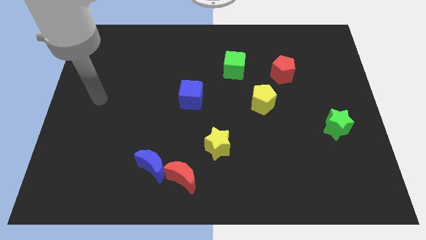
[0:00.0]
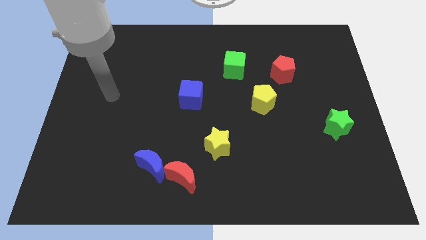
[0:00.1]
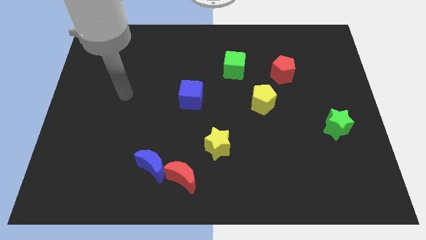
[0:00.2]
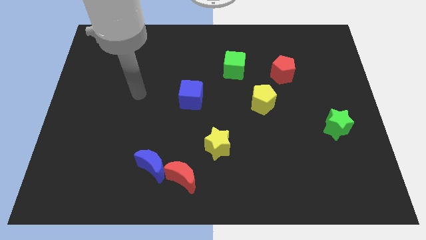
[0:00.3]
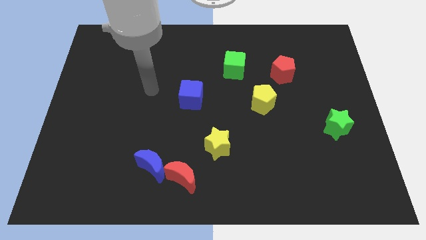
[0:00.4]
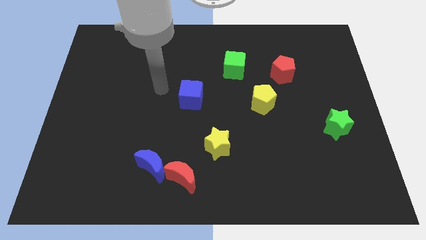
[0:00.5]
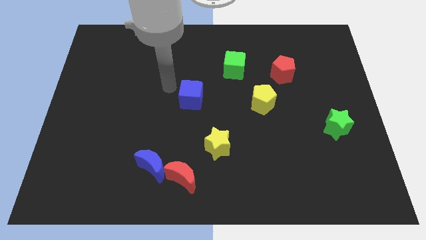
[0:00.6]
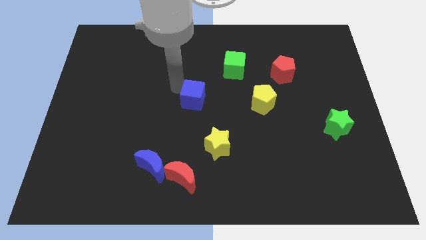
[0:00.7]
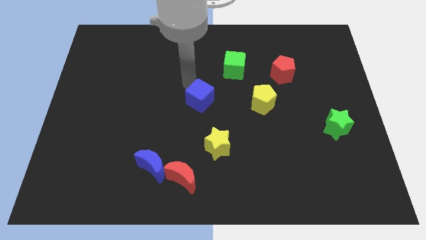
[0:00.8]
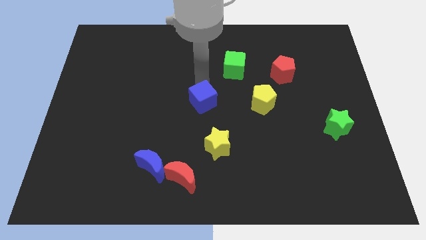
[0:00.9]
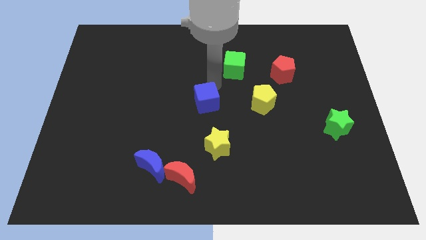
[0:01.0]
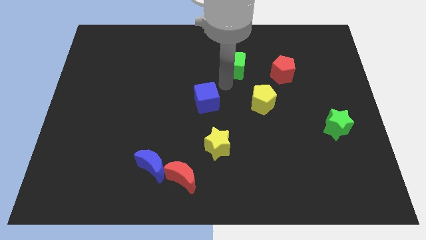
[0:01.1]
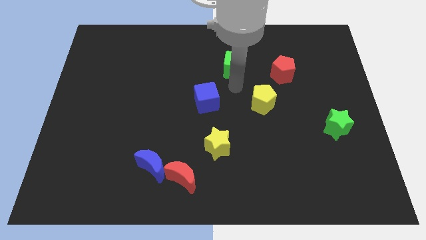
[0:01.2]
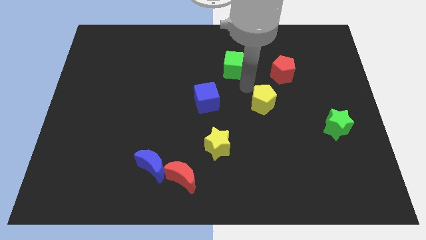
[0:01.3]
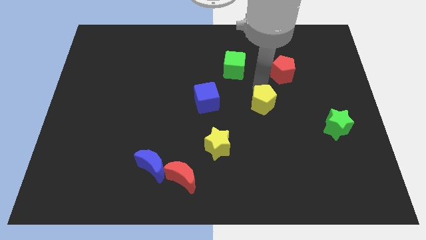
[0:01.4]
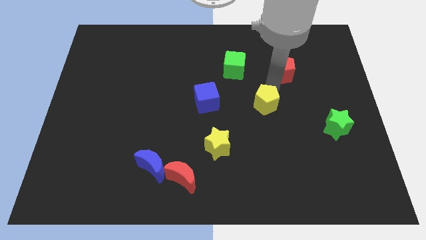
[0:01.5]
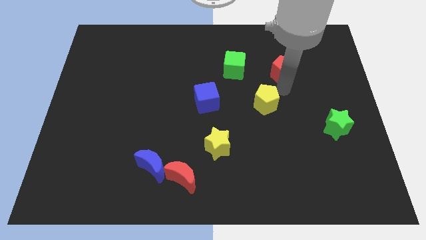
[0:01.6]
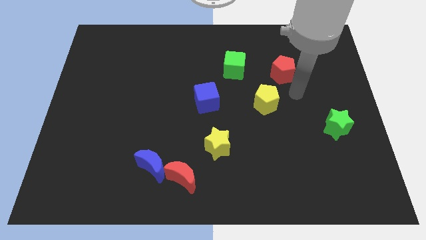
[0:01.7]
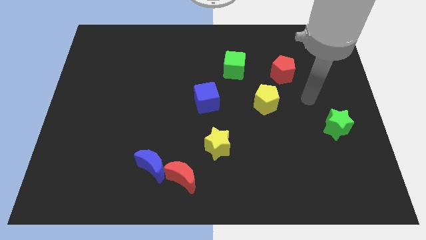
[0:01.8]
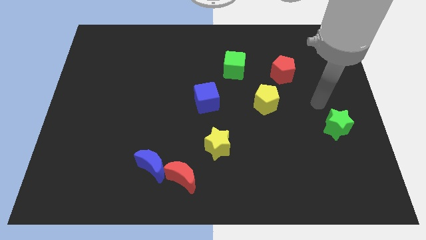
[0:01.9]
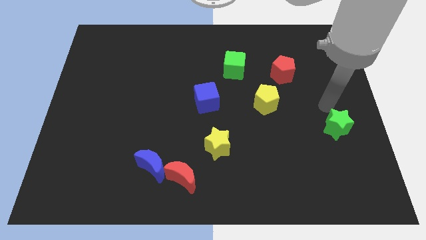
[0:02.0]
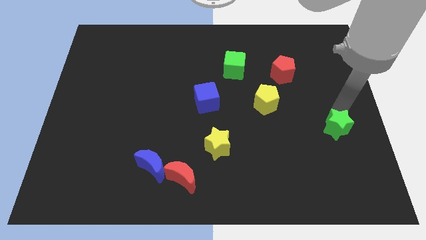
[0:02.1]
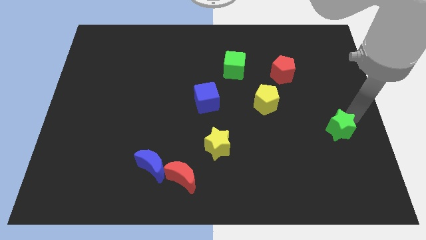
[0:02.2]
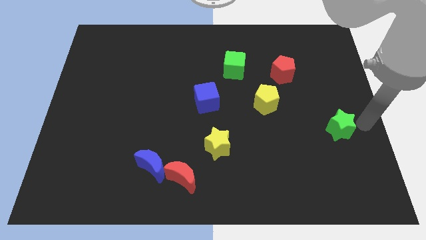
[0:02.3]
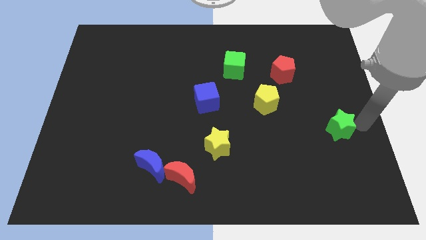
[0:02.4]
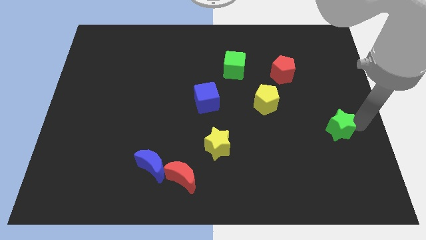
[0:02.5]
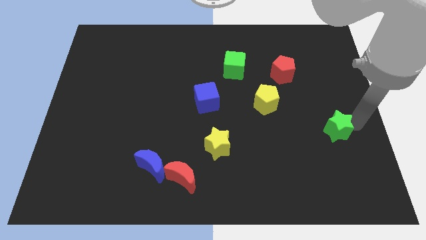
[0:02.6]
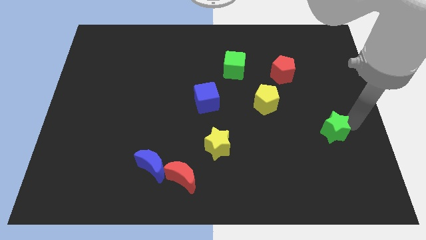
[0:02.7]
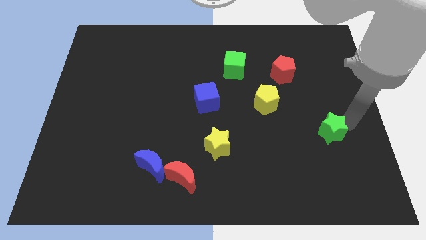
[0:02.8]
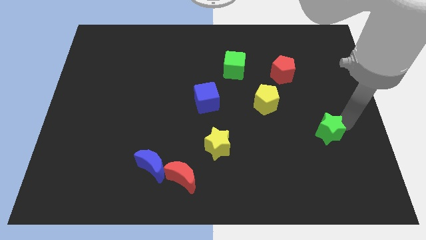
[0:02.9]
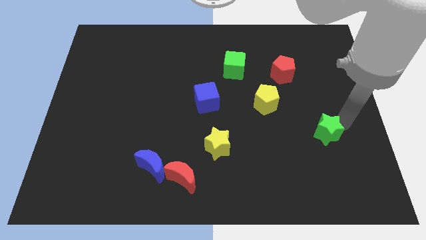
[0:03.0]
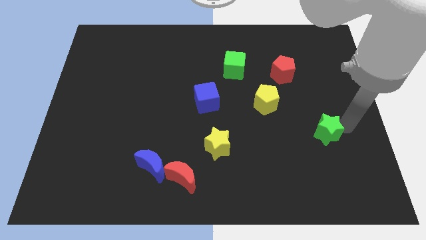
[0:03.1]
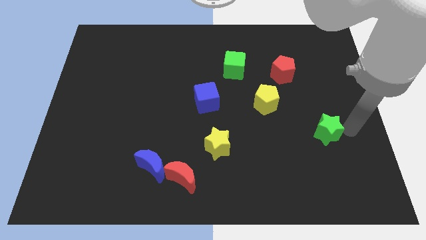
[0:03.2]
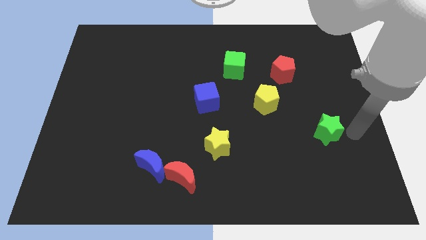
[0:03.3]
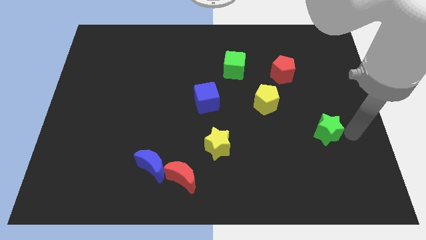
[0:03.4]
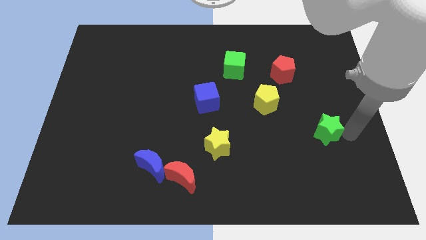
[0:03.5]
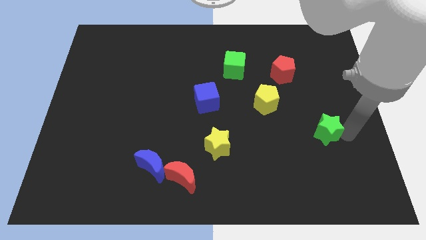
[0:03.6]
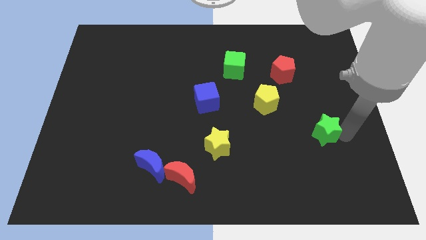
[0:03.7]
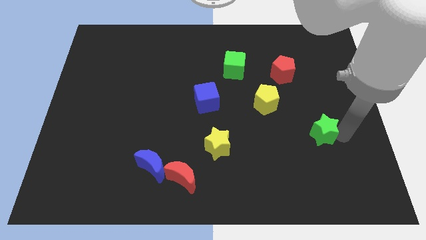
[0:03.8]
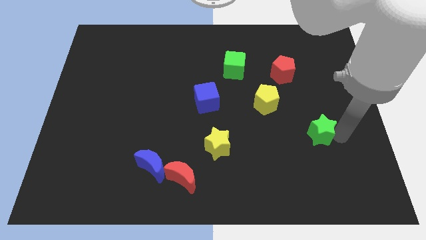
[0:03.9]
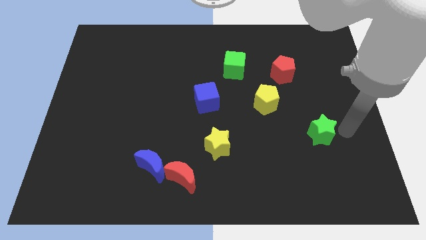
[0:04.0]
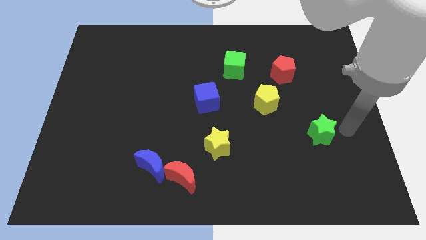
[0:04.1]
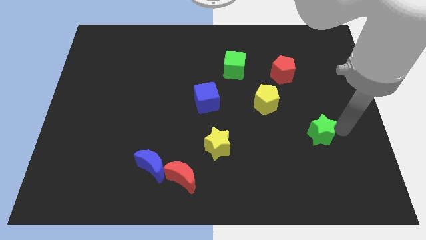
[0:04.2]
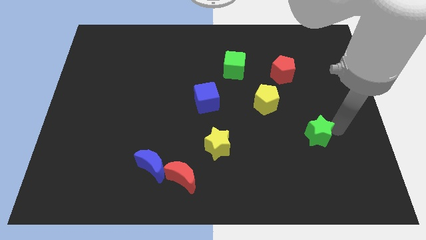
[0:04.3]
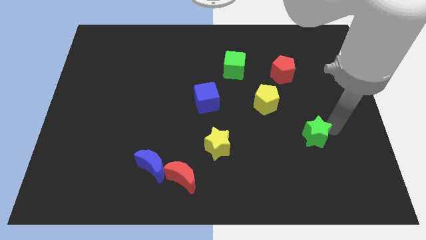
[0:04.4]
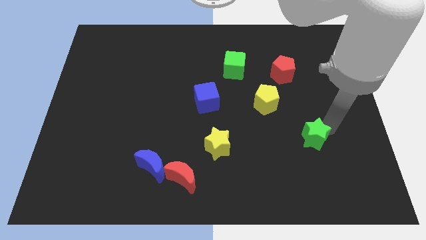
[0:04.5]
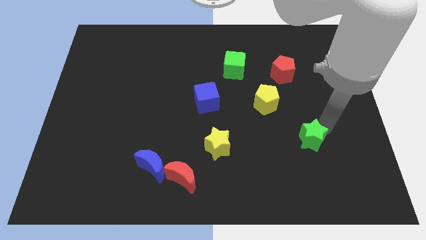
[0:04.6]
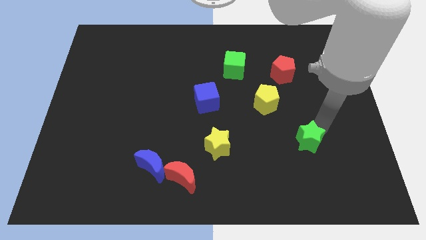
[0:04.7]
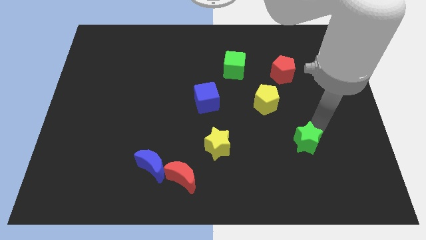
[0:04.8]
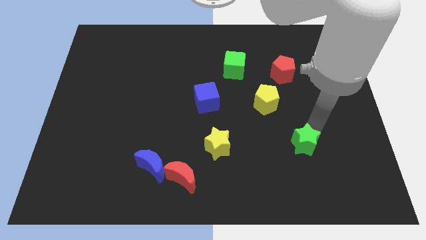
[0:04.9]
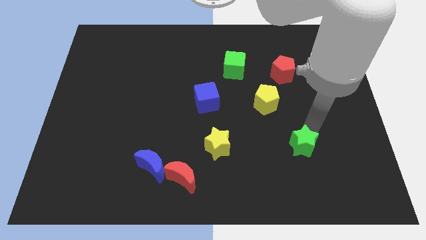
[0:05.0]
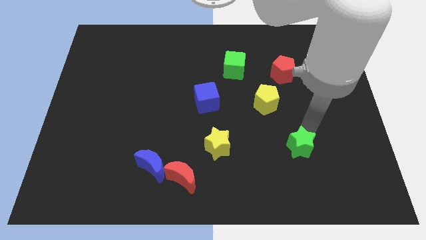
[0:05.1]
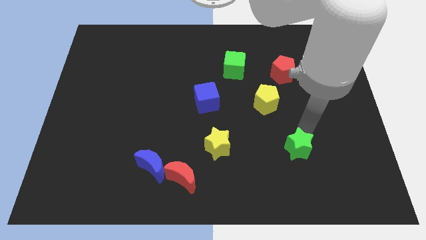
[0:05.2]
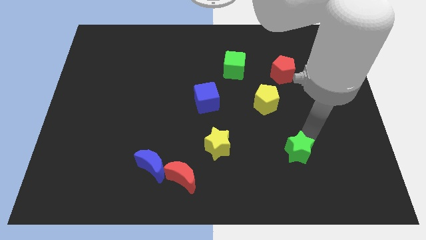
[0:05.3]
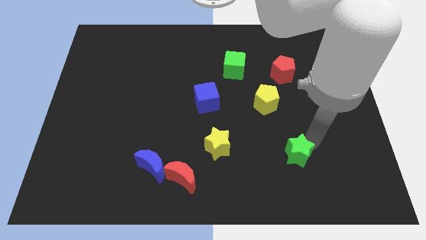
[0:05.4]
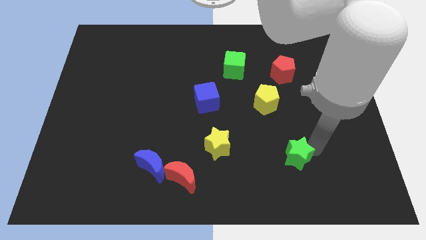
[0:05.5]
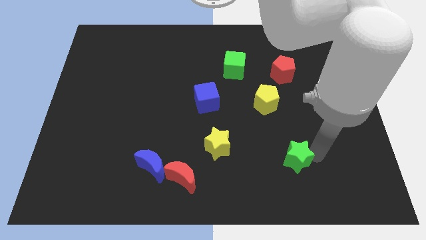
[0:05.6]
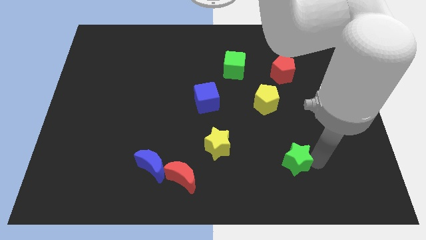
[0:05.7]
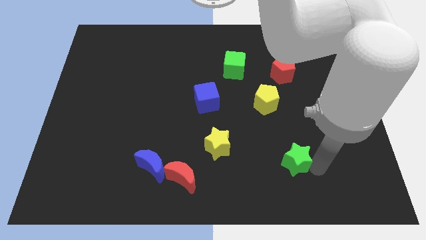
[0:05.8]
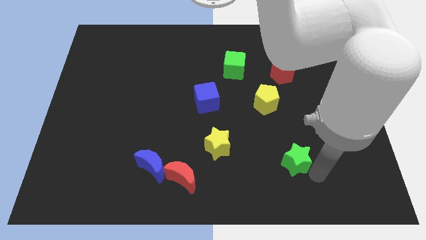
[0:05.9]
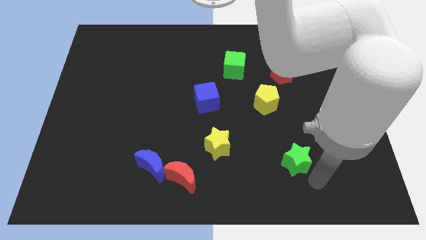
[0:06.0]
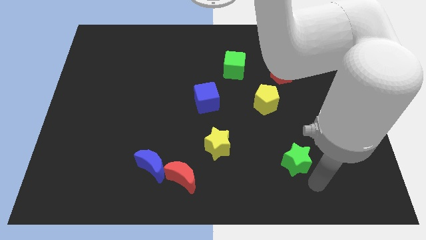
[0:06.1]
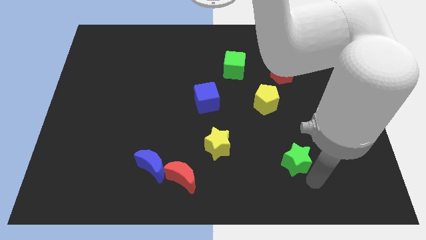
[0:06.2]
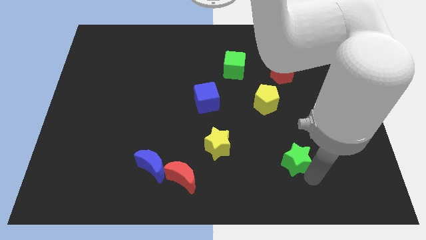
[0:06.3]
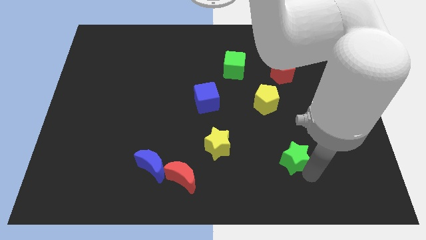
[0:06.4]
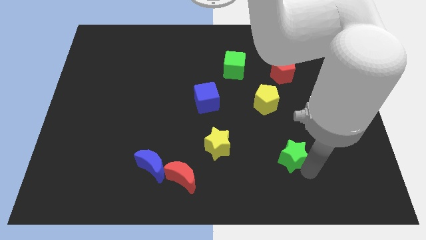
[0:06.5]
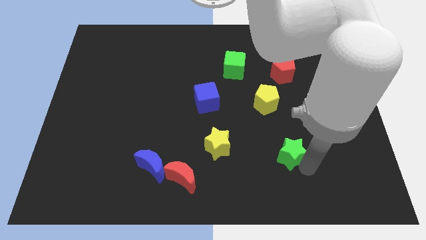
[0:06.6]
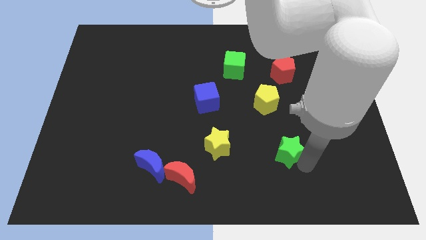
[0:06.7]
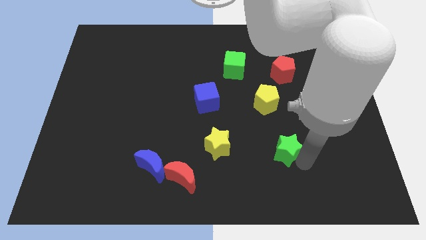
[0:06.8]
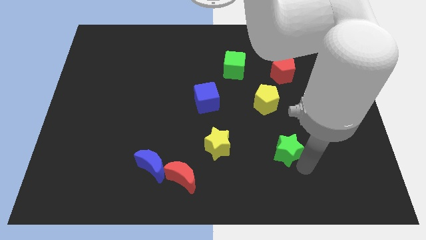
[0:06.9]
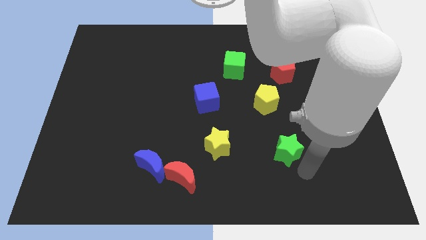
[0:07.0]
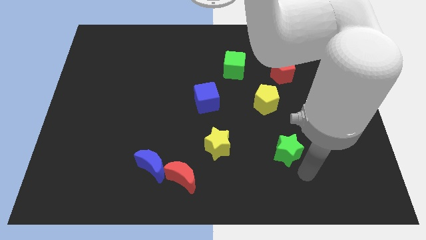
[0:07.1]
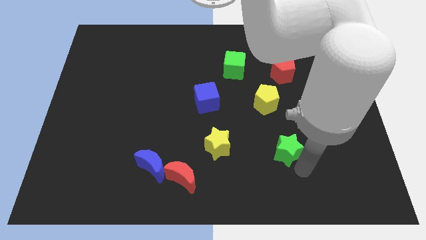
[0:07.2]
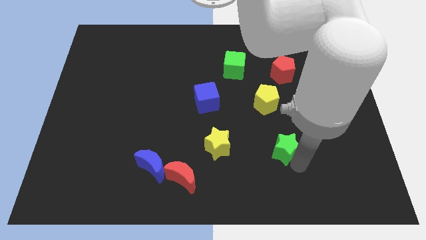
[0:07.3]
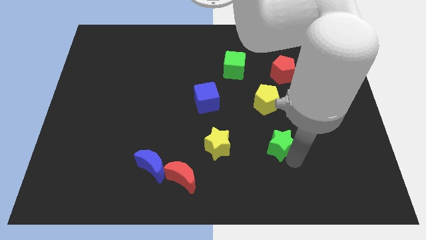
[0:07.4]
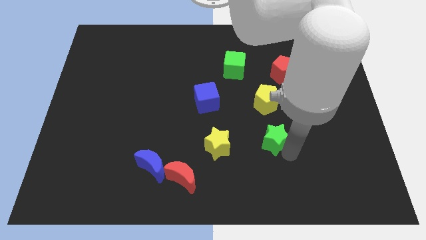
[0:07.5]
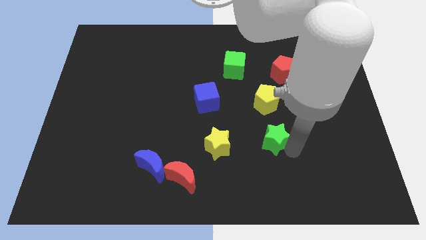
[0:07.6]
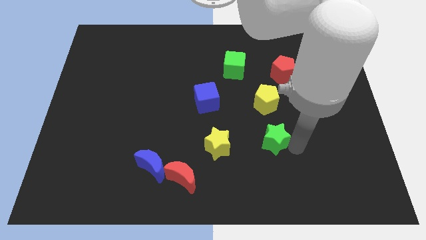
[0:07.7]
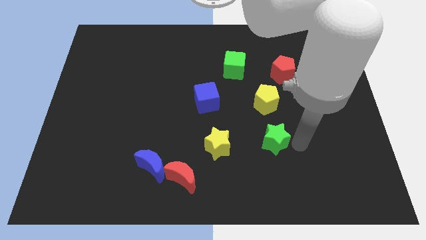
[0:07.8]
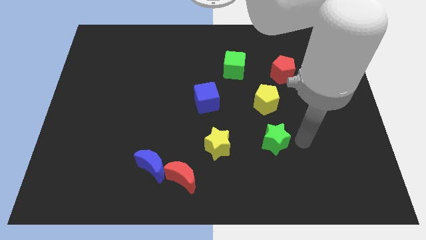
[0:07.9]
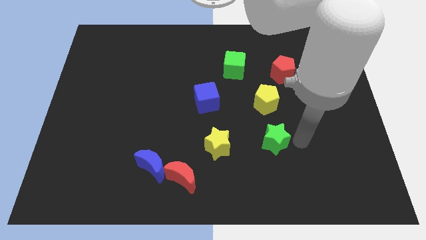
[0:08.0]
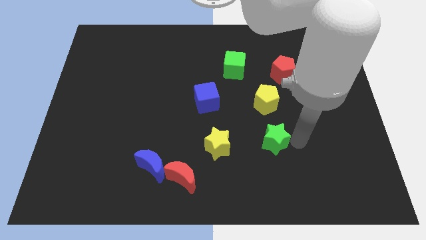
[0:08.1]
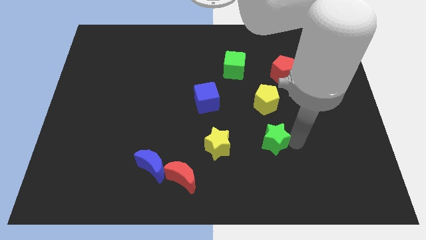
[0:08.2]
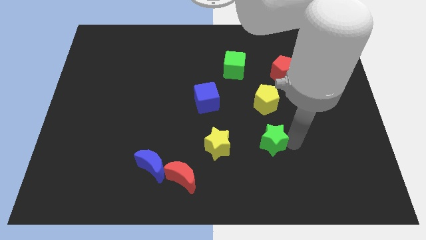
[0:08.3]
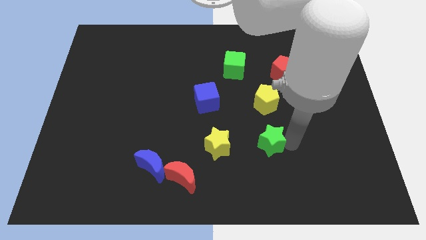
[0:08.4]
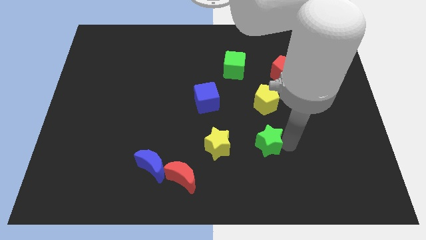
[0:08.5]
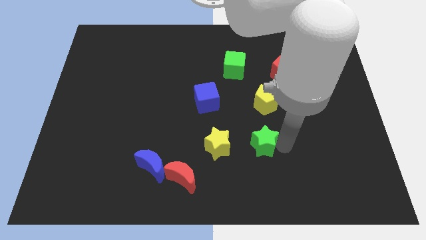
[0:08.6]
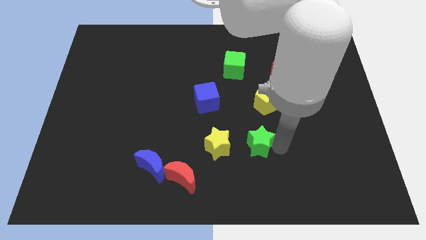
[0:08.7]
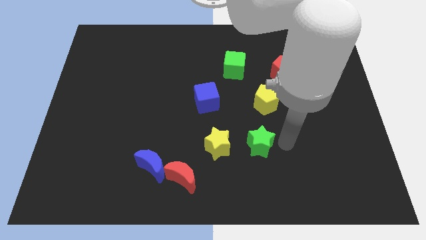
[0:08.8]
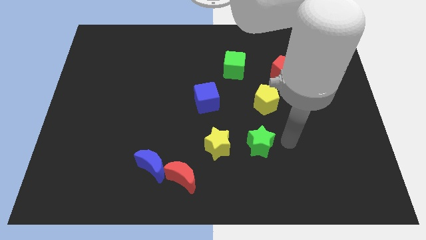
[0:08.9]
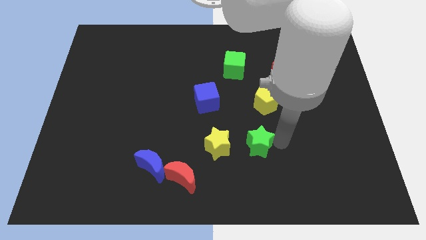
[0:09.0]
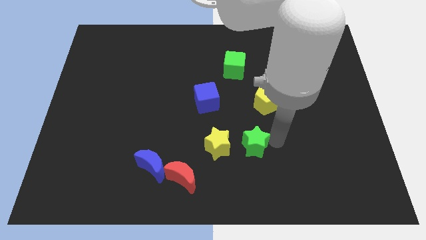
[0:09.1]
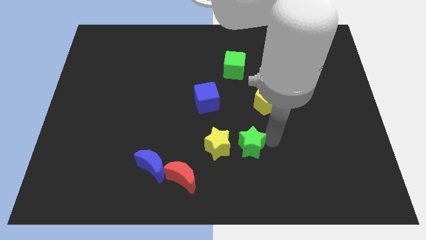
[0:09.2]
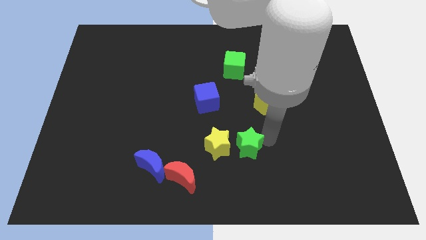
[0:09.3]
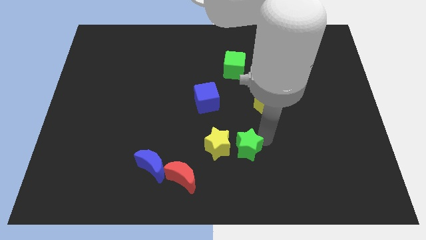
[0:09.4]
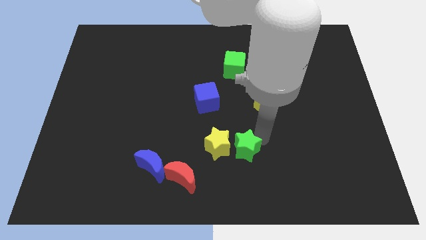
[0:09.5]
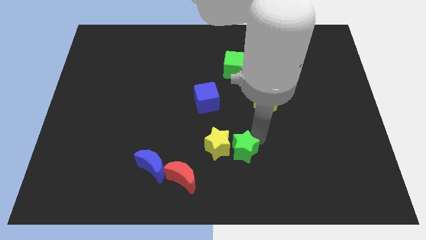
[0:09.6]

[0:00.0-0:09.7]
slide the green star next to the yellow star
